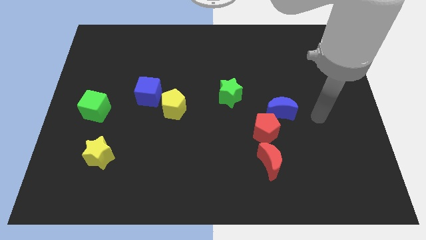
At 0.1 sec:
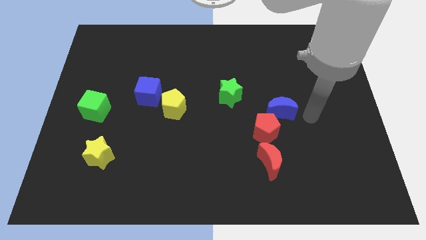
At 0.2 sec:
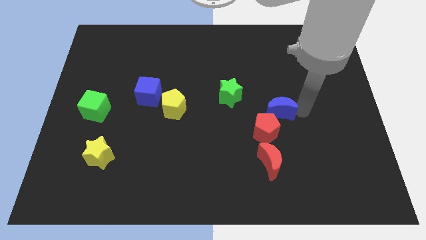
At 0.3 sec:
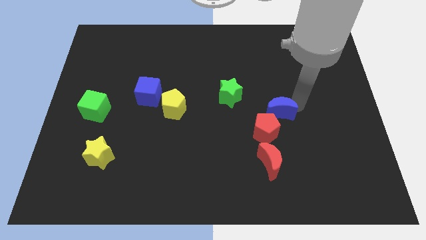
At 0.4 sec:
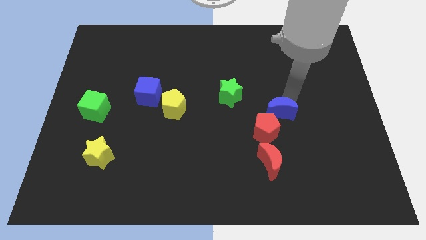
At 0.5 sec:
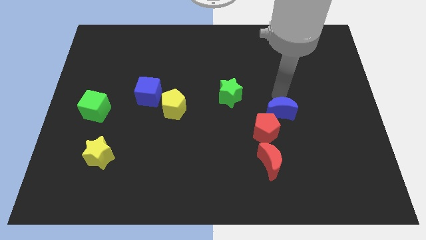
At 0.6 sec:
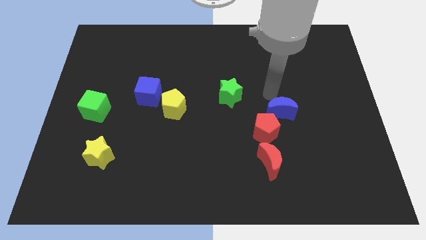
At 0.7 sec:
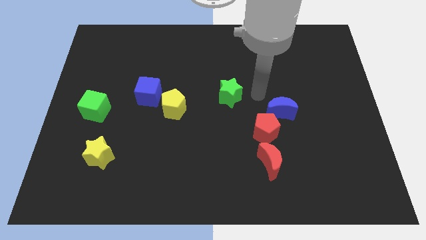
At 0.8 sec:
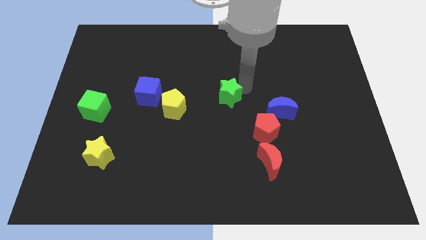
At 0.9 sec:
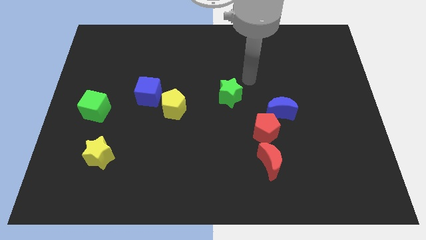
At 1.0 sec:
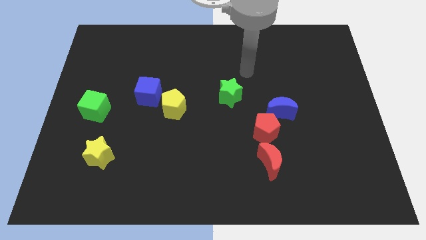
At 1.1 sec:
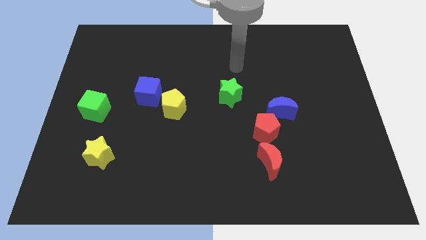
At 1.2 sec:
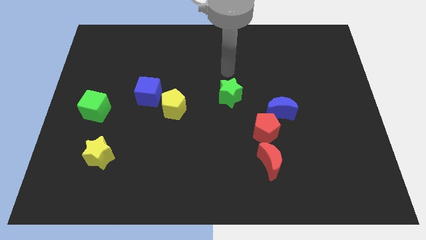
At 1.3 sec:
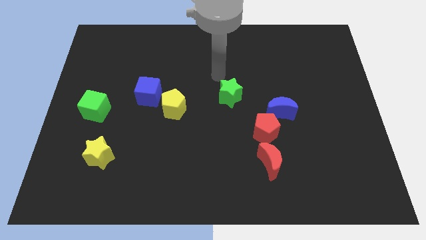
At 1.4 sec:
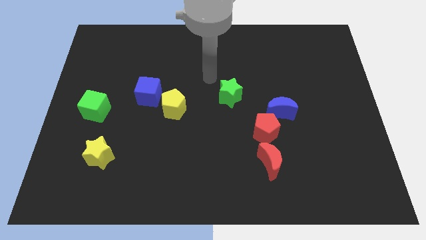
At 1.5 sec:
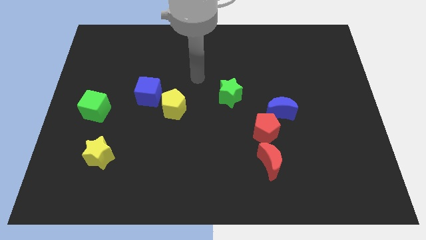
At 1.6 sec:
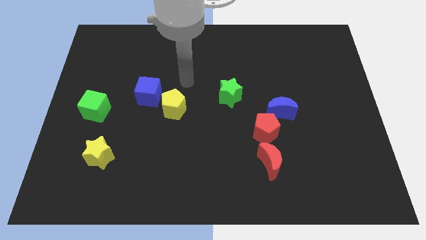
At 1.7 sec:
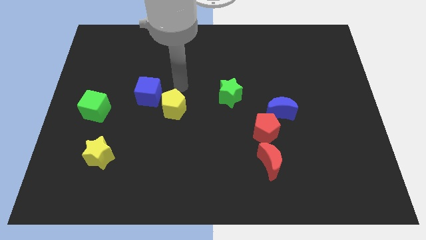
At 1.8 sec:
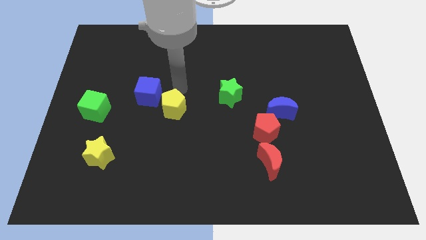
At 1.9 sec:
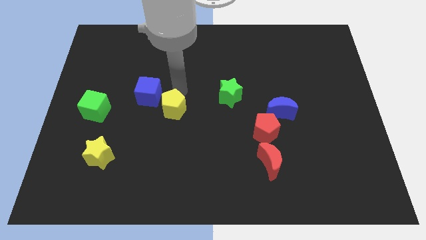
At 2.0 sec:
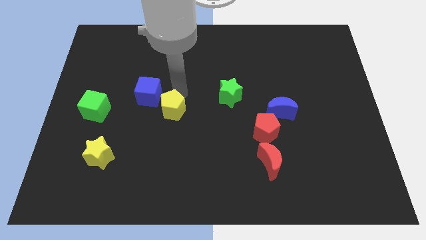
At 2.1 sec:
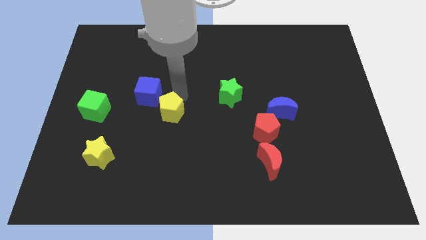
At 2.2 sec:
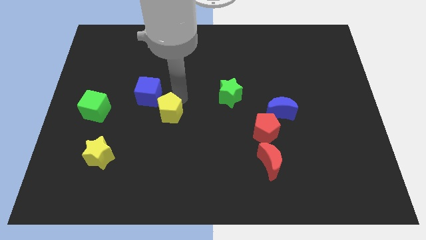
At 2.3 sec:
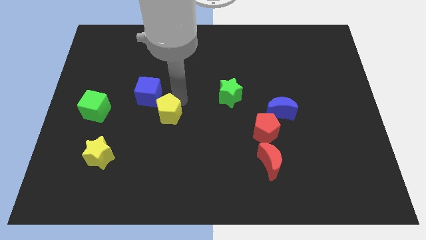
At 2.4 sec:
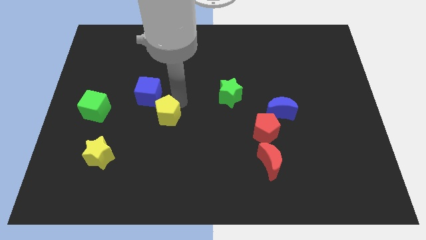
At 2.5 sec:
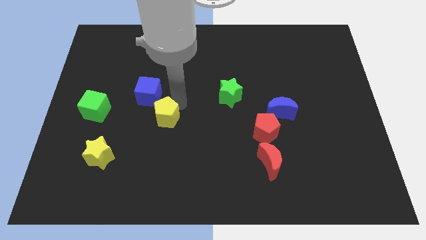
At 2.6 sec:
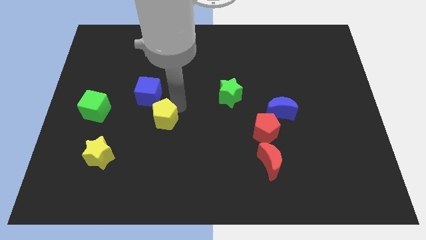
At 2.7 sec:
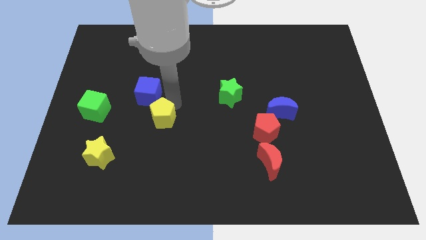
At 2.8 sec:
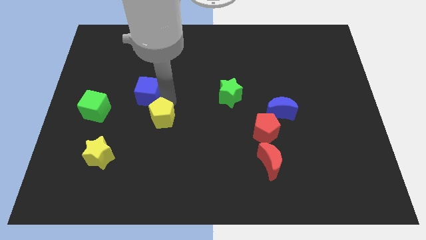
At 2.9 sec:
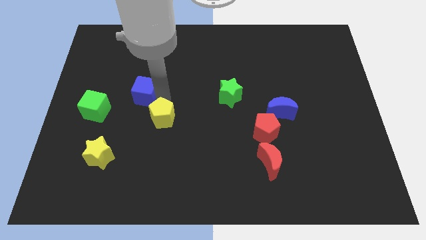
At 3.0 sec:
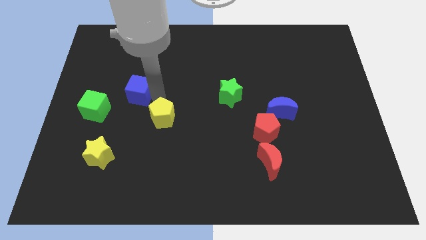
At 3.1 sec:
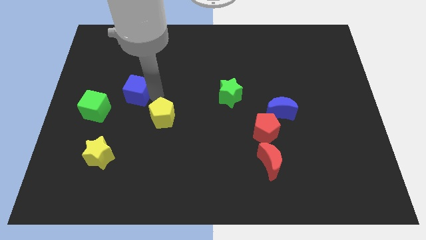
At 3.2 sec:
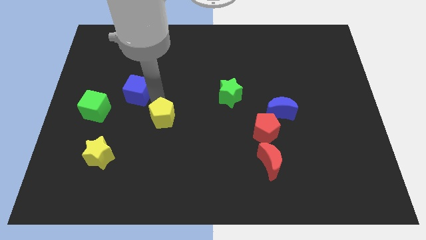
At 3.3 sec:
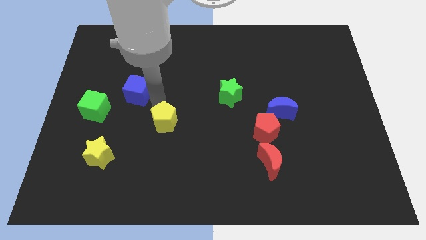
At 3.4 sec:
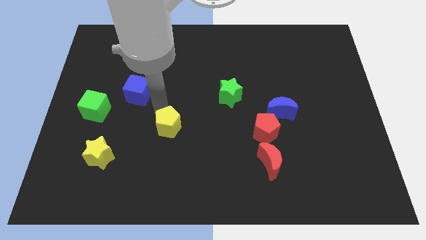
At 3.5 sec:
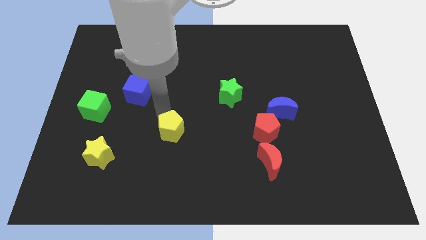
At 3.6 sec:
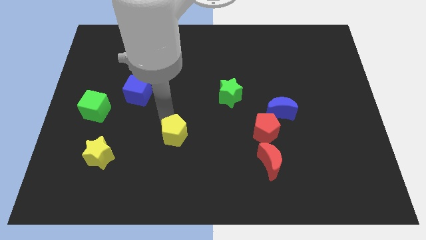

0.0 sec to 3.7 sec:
slide the yellow pentagon down slightly

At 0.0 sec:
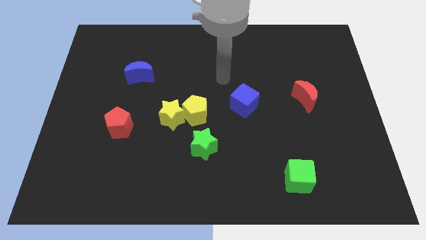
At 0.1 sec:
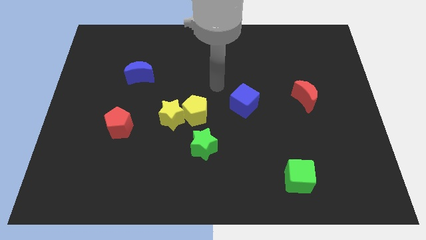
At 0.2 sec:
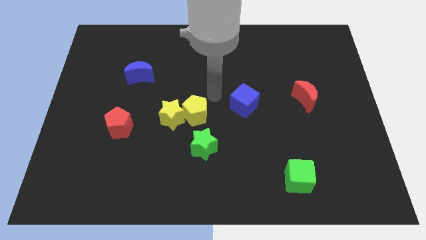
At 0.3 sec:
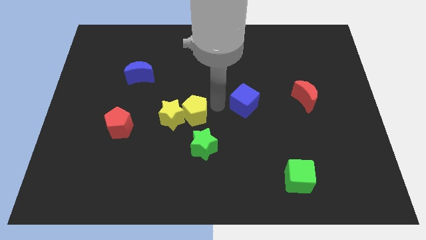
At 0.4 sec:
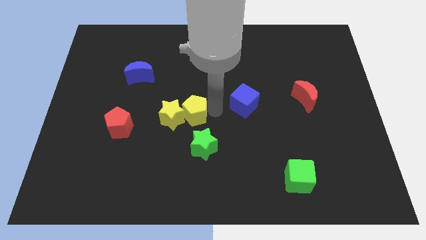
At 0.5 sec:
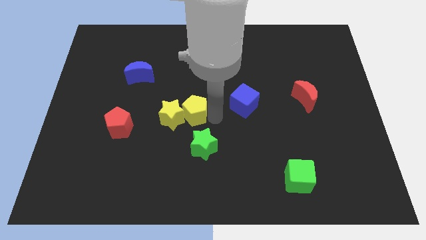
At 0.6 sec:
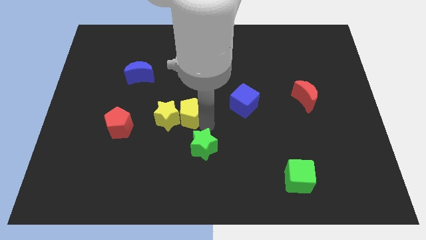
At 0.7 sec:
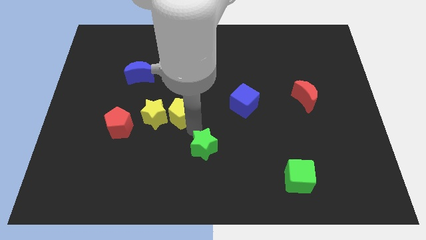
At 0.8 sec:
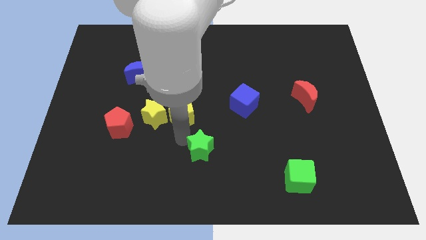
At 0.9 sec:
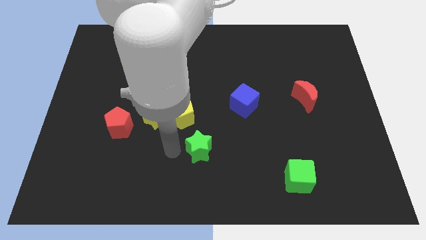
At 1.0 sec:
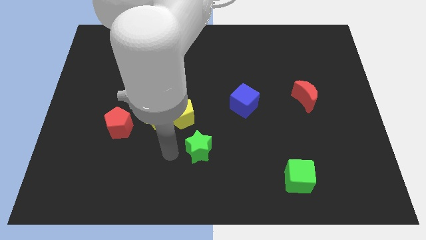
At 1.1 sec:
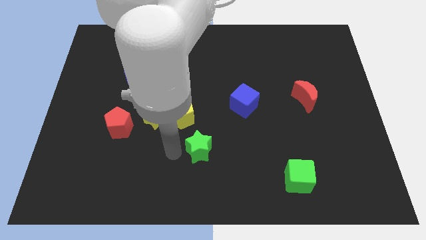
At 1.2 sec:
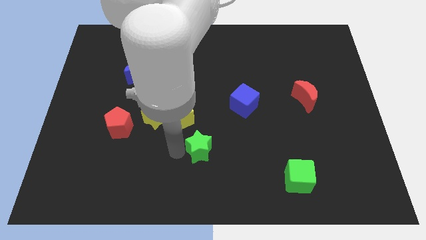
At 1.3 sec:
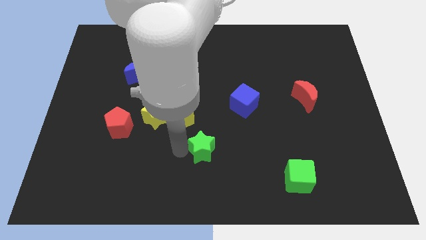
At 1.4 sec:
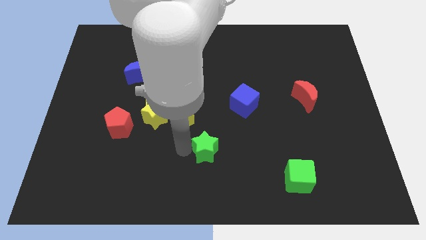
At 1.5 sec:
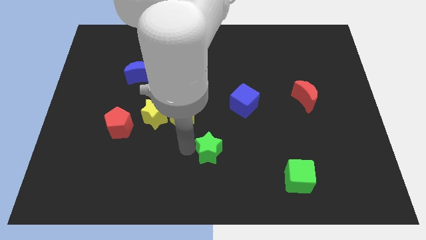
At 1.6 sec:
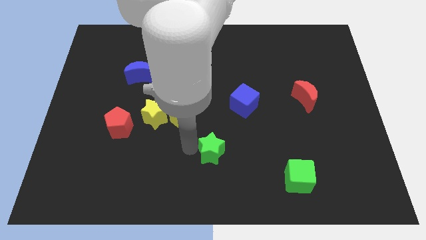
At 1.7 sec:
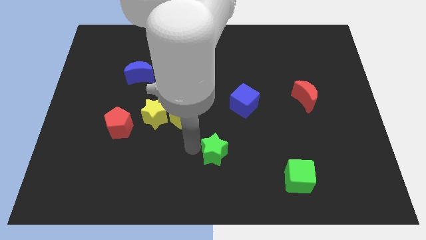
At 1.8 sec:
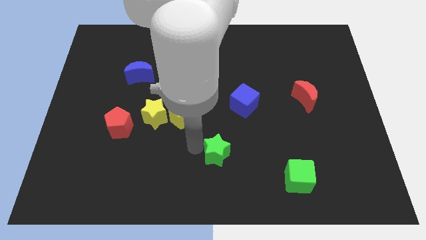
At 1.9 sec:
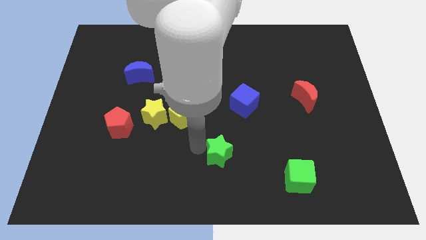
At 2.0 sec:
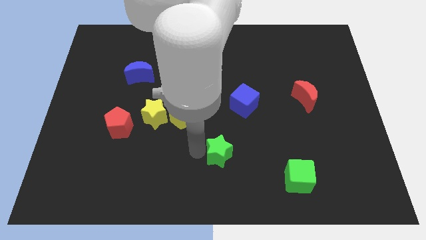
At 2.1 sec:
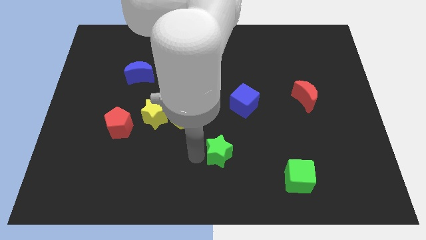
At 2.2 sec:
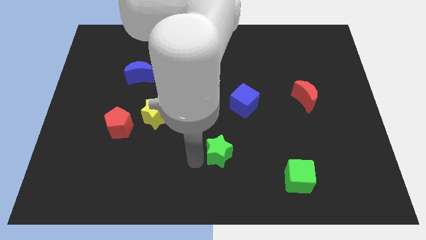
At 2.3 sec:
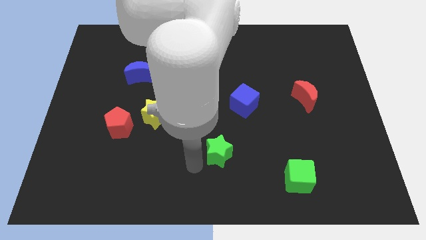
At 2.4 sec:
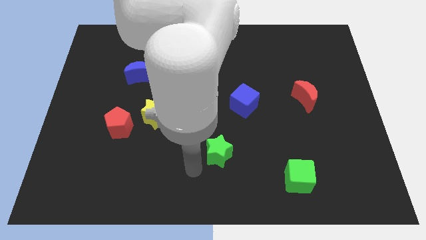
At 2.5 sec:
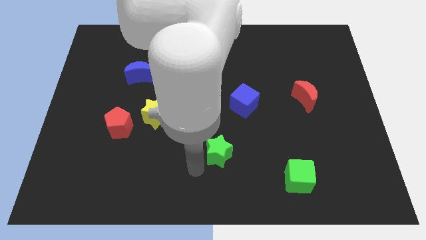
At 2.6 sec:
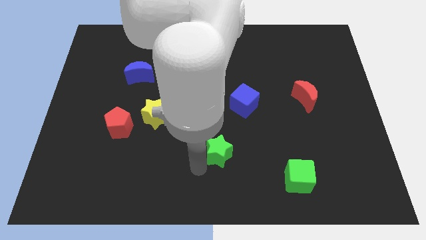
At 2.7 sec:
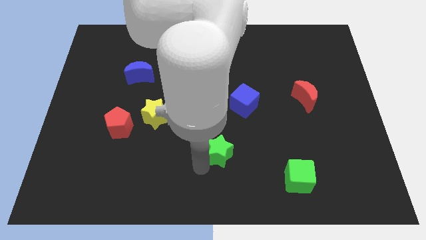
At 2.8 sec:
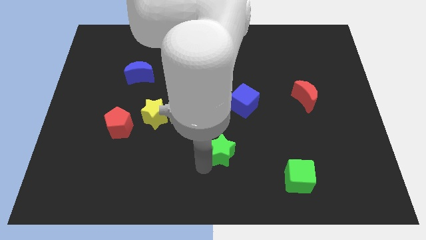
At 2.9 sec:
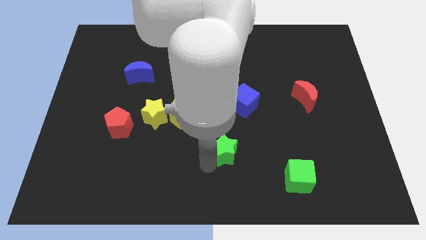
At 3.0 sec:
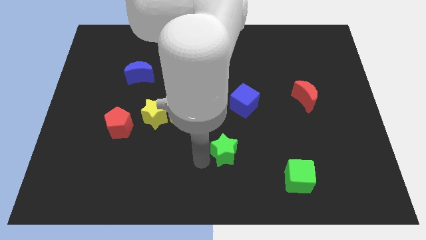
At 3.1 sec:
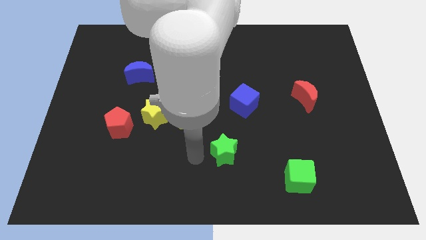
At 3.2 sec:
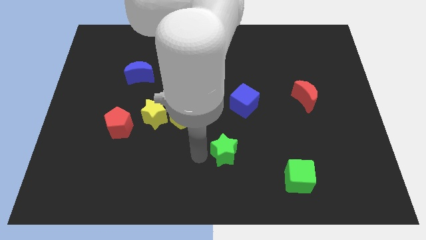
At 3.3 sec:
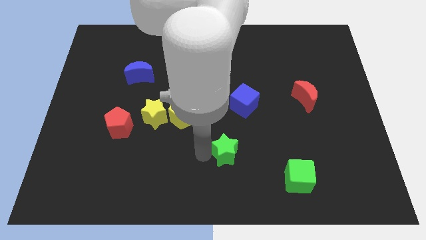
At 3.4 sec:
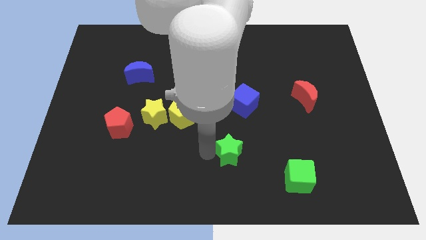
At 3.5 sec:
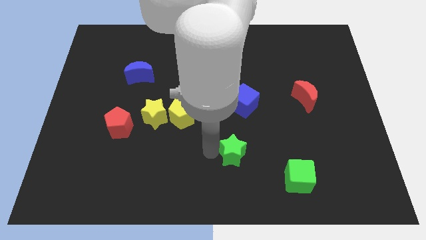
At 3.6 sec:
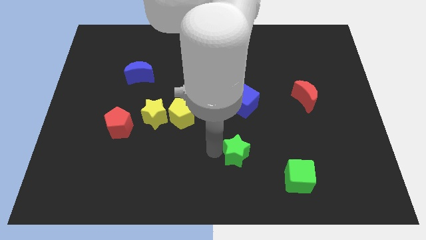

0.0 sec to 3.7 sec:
slightly slide the green star to the right

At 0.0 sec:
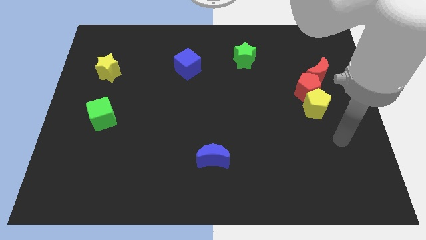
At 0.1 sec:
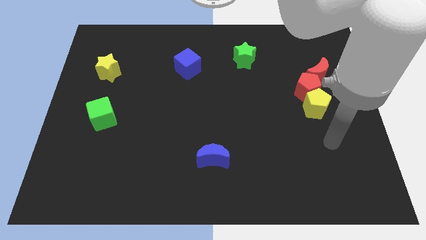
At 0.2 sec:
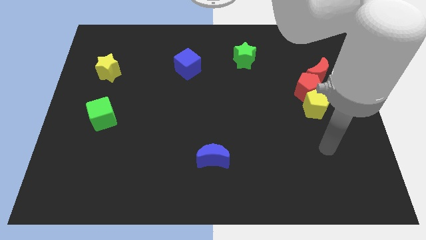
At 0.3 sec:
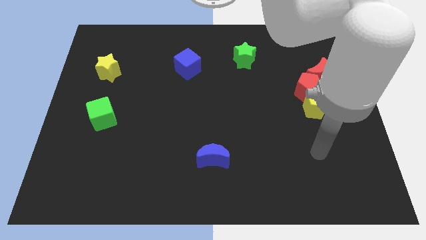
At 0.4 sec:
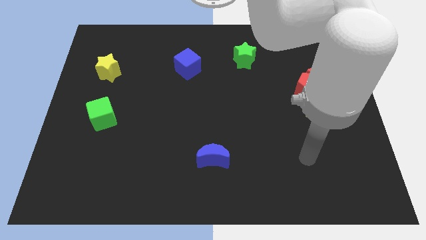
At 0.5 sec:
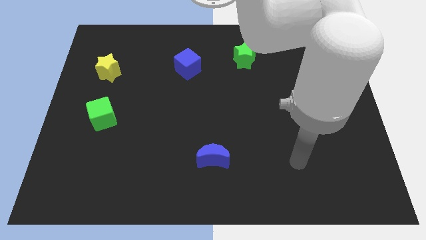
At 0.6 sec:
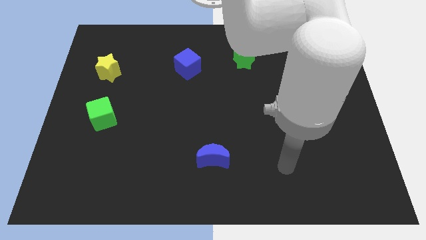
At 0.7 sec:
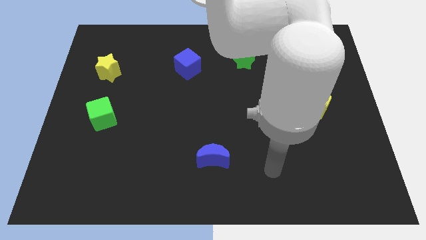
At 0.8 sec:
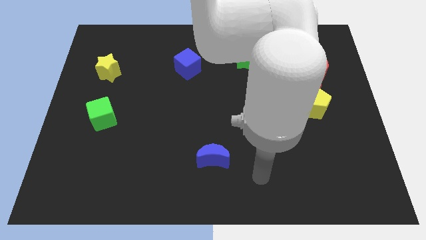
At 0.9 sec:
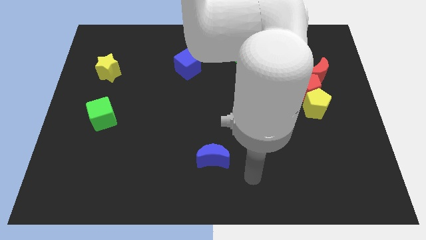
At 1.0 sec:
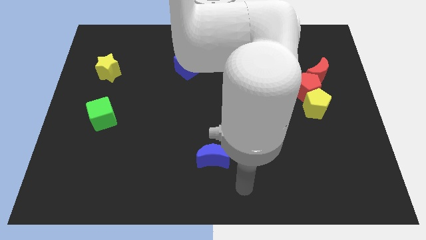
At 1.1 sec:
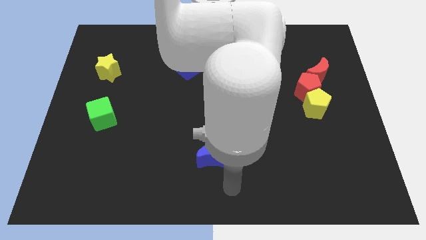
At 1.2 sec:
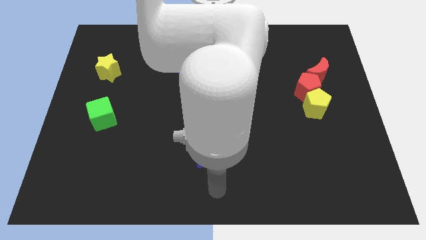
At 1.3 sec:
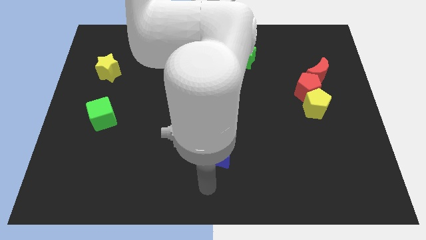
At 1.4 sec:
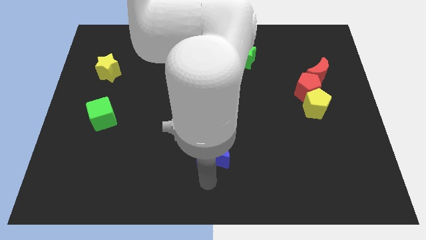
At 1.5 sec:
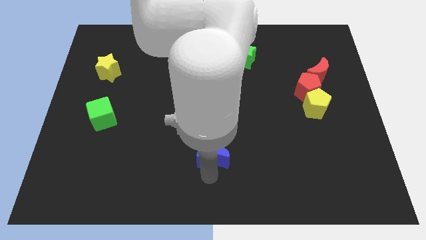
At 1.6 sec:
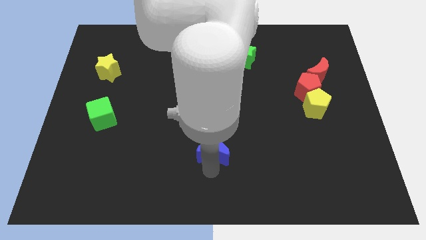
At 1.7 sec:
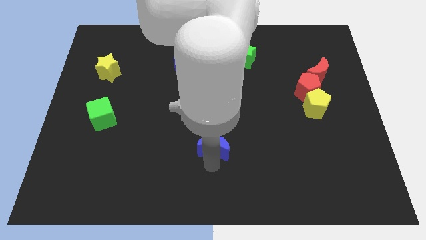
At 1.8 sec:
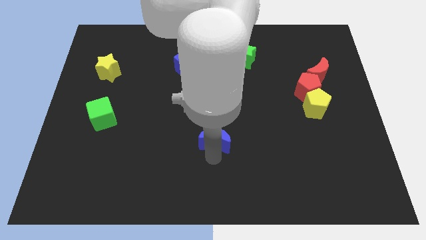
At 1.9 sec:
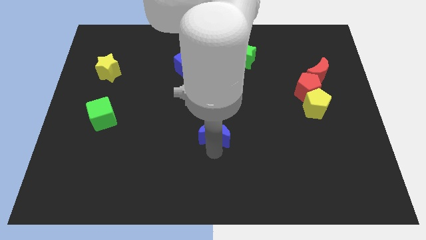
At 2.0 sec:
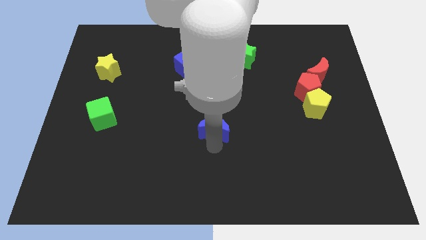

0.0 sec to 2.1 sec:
slide the blue moon slightly upwards
